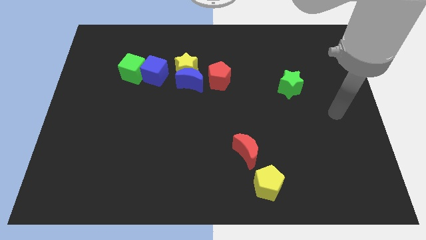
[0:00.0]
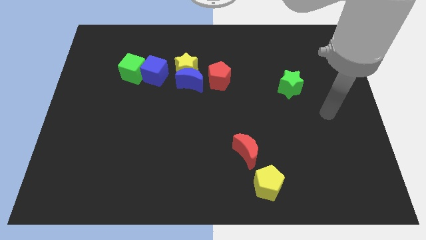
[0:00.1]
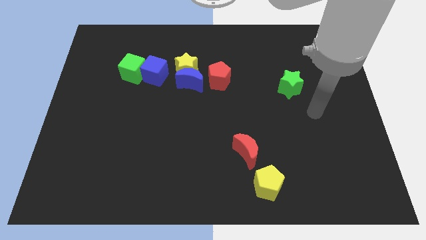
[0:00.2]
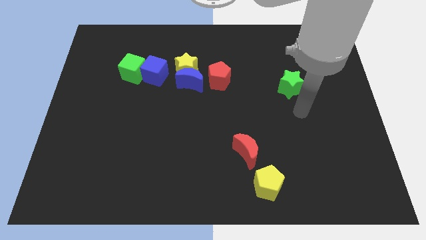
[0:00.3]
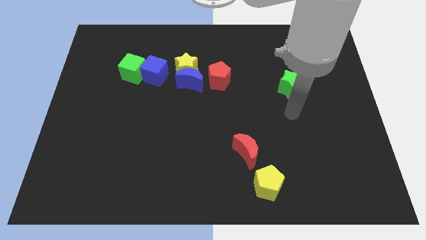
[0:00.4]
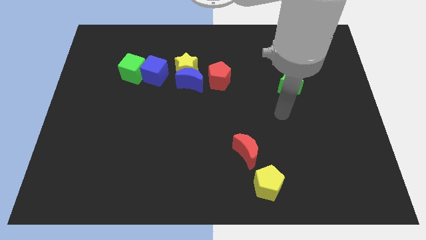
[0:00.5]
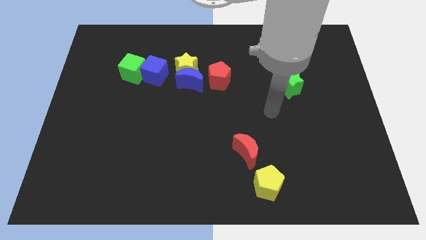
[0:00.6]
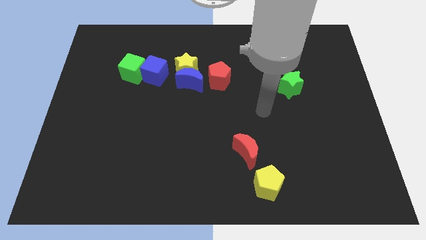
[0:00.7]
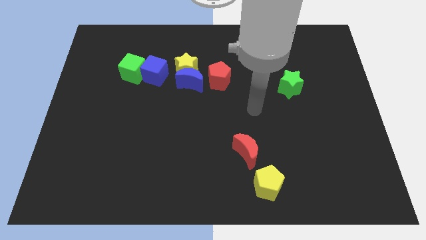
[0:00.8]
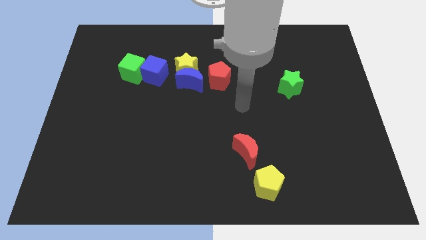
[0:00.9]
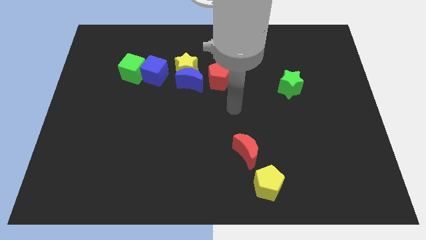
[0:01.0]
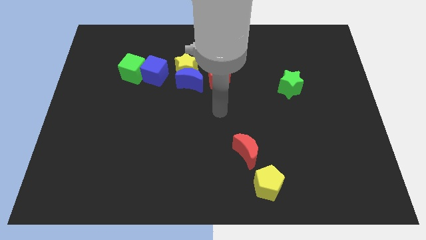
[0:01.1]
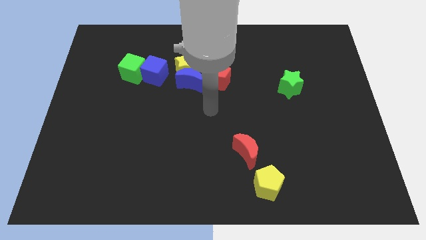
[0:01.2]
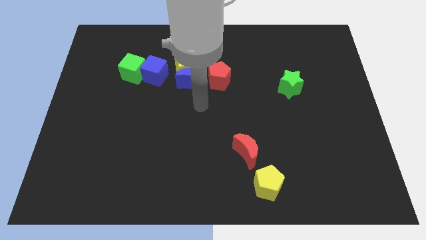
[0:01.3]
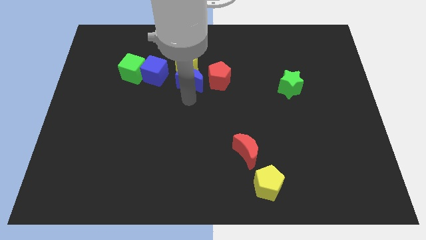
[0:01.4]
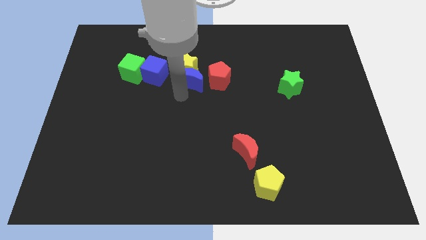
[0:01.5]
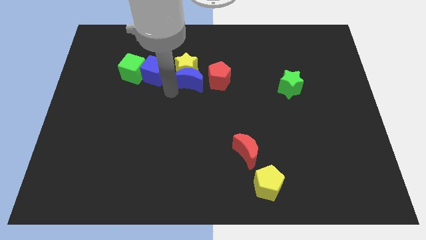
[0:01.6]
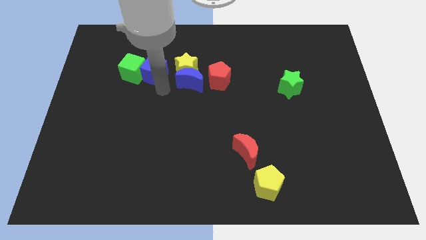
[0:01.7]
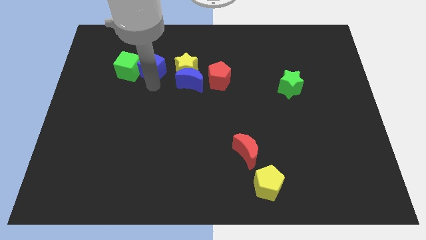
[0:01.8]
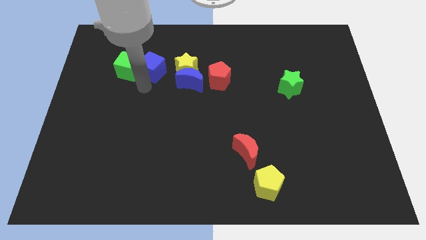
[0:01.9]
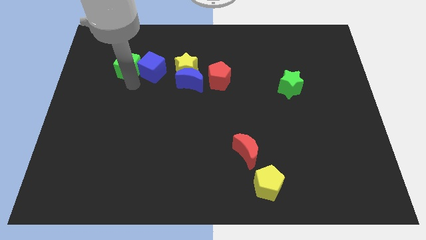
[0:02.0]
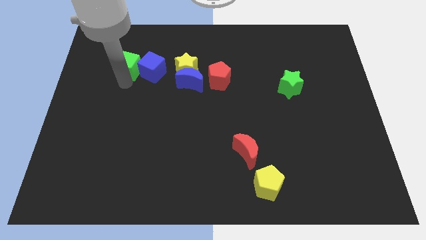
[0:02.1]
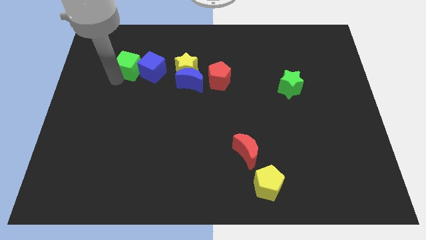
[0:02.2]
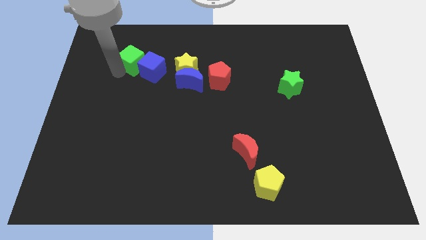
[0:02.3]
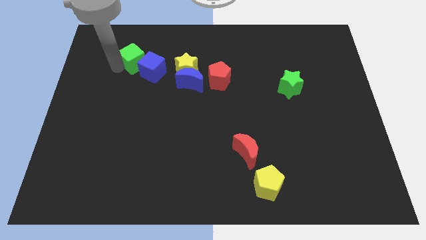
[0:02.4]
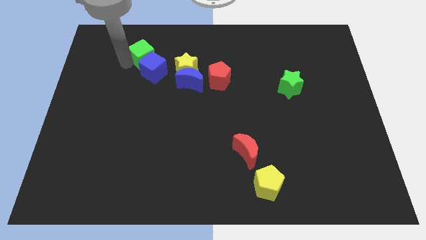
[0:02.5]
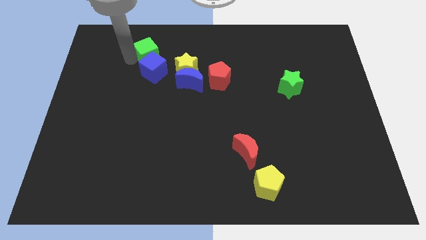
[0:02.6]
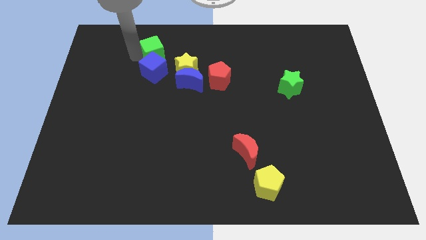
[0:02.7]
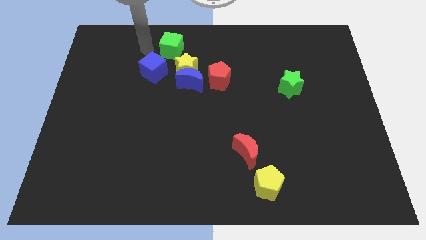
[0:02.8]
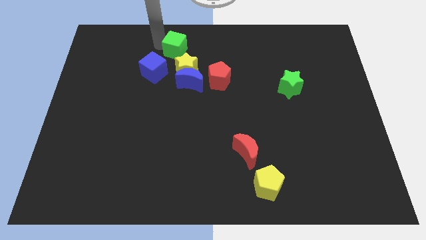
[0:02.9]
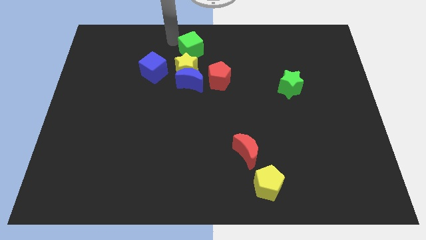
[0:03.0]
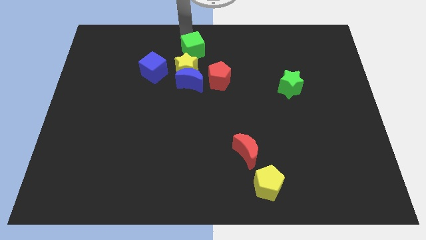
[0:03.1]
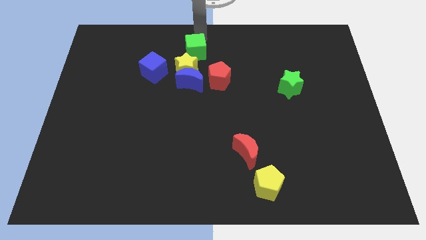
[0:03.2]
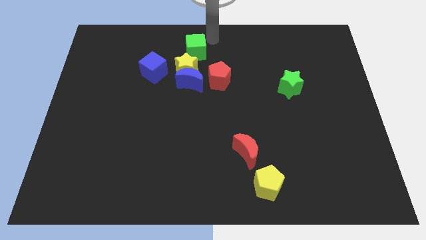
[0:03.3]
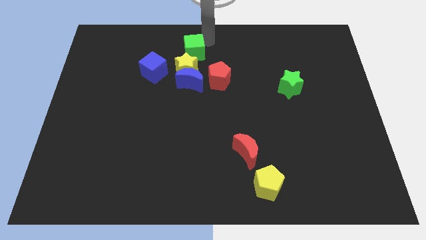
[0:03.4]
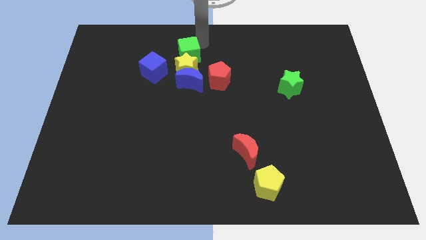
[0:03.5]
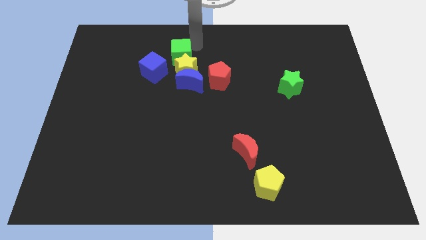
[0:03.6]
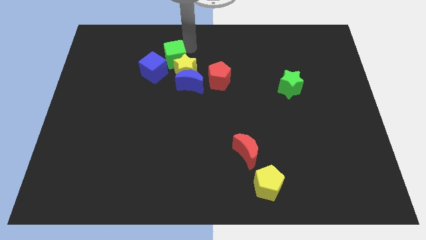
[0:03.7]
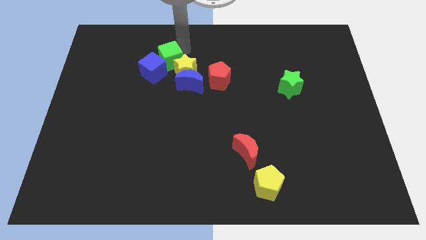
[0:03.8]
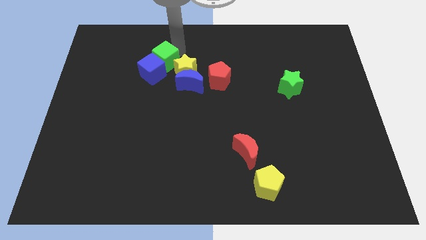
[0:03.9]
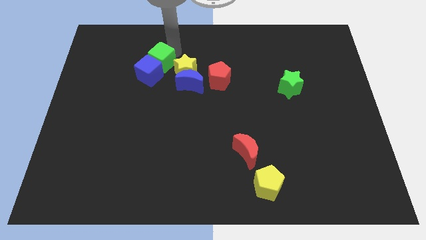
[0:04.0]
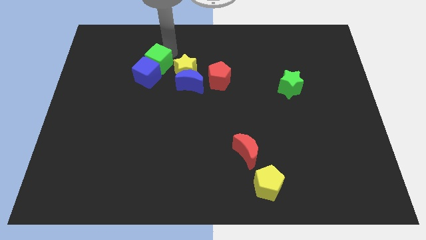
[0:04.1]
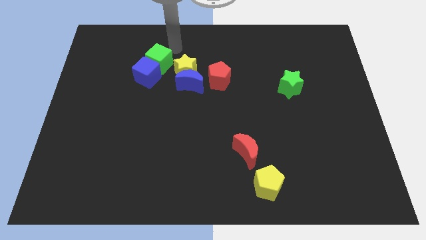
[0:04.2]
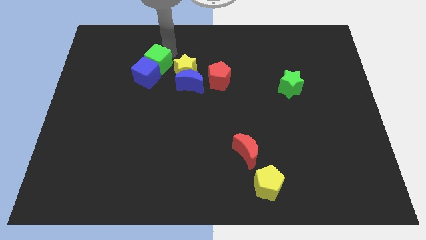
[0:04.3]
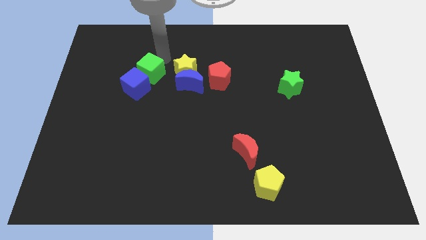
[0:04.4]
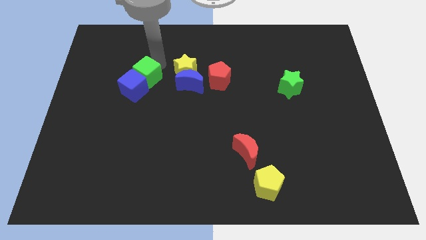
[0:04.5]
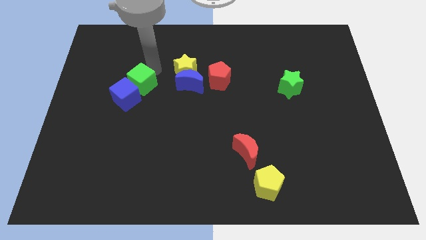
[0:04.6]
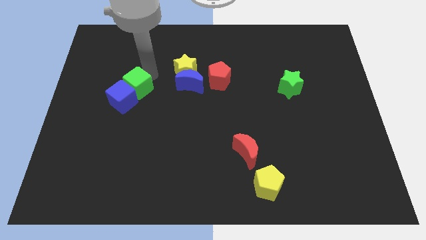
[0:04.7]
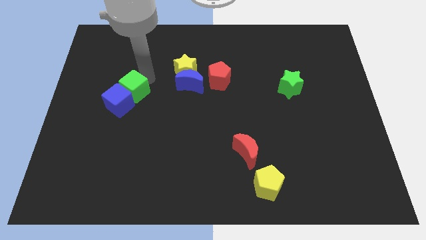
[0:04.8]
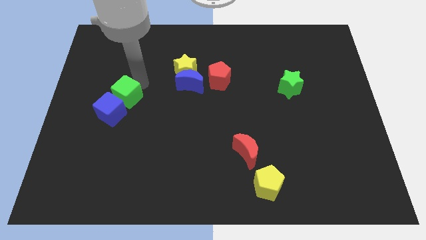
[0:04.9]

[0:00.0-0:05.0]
slide the green cube downwards a bit

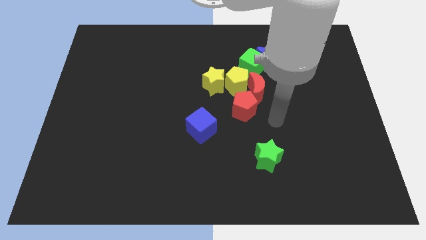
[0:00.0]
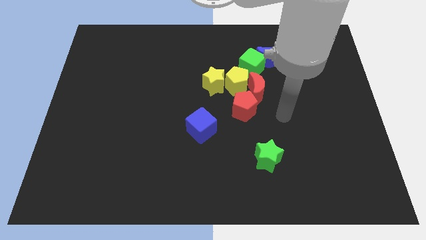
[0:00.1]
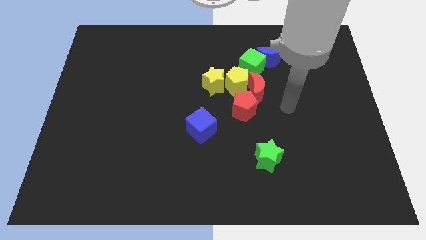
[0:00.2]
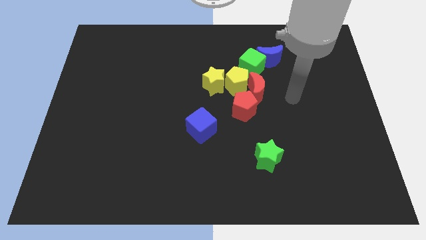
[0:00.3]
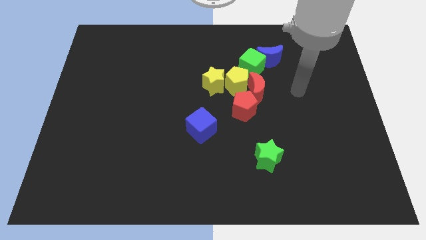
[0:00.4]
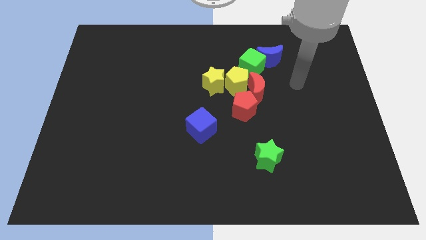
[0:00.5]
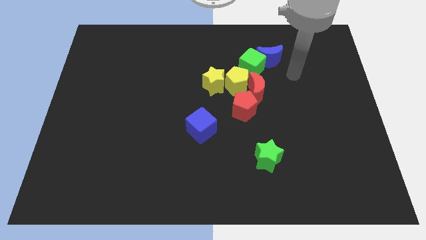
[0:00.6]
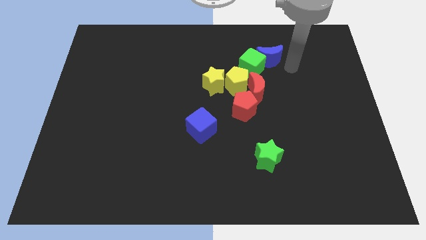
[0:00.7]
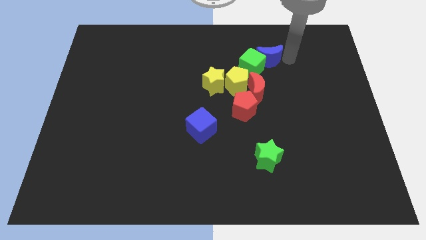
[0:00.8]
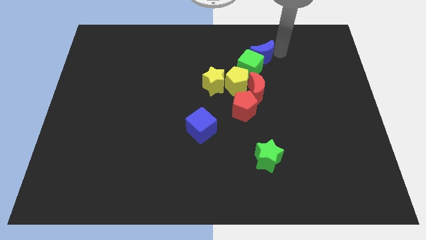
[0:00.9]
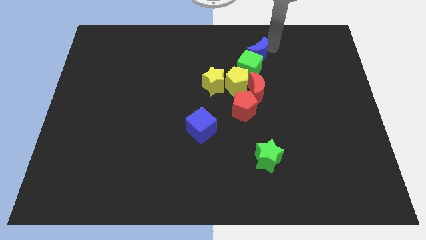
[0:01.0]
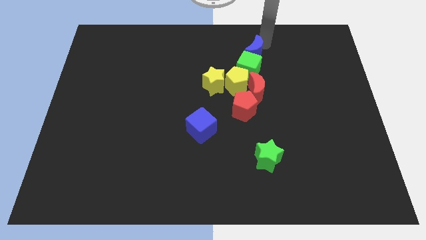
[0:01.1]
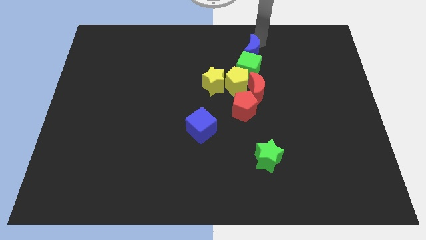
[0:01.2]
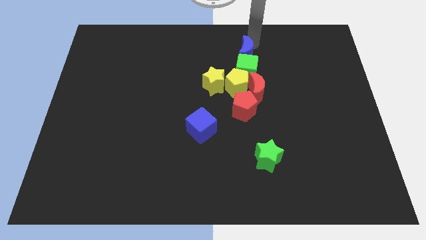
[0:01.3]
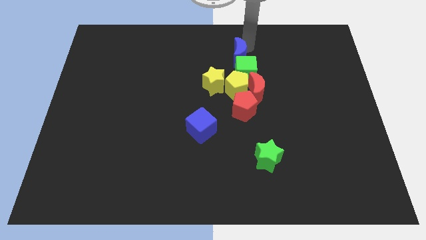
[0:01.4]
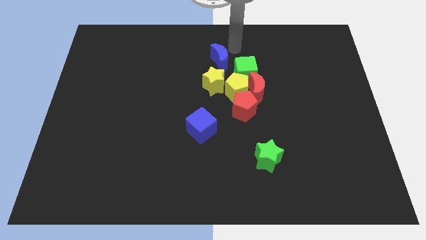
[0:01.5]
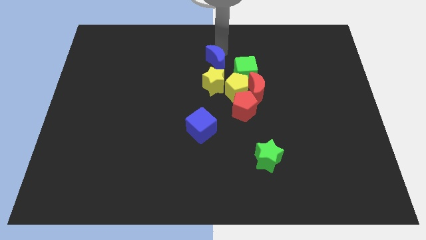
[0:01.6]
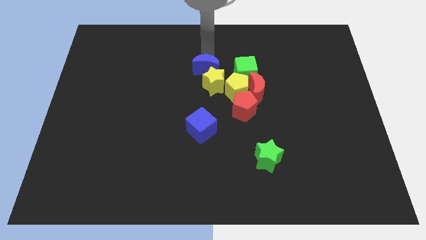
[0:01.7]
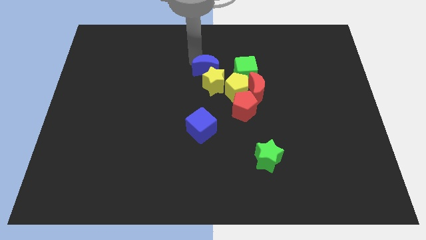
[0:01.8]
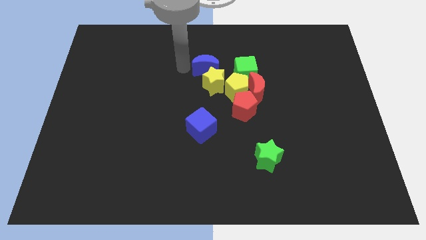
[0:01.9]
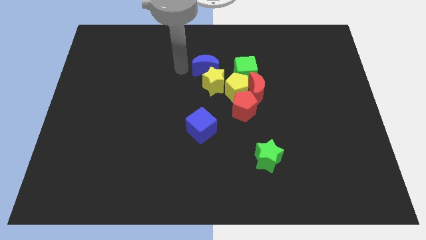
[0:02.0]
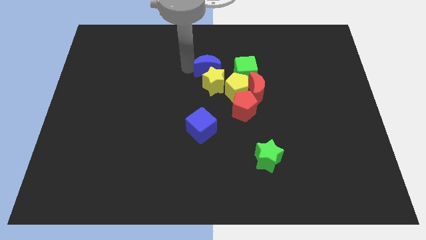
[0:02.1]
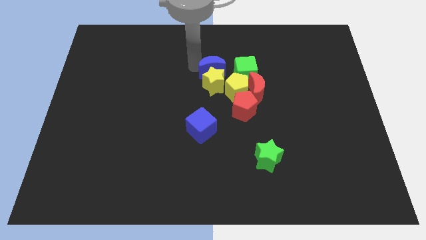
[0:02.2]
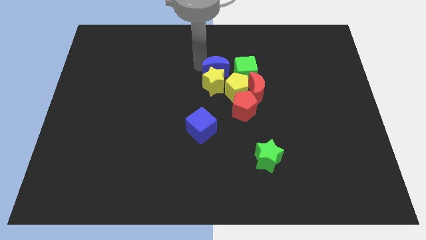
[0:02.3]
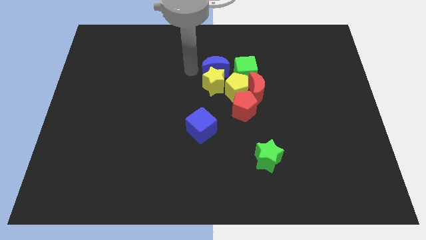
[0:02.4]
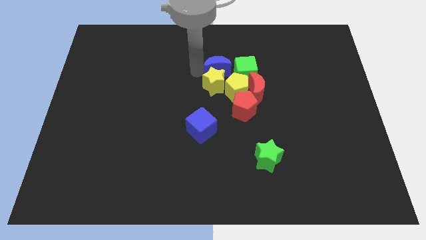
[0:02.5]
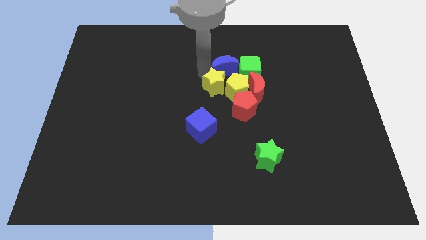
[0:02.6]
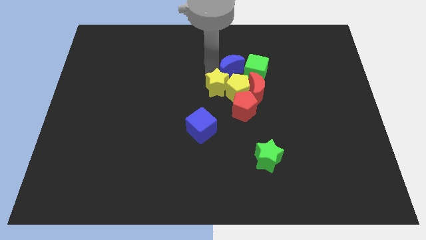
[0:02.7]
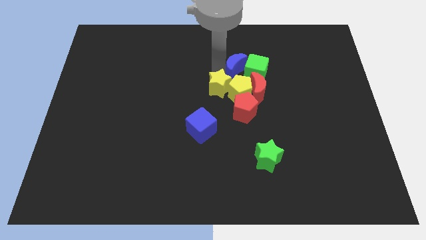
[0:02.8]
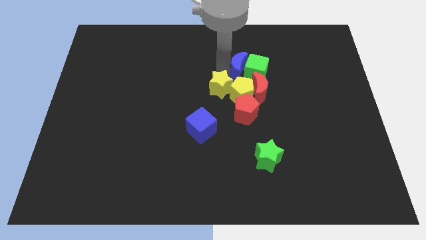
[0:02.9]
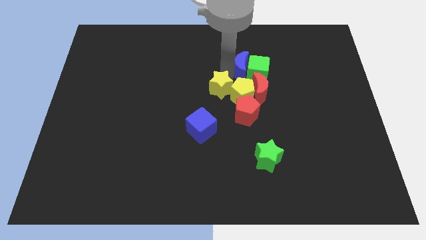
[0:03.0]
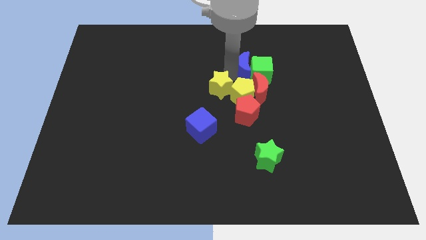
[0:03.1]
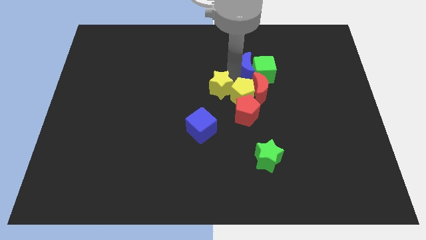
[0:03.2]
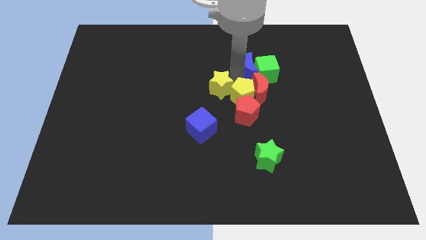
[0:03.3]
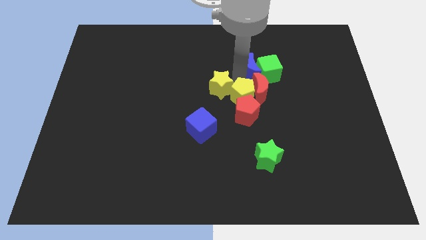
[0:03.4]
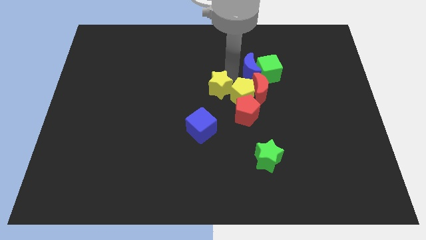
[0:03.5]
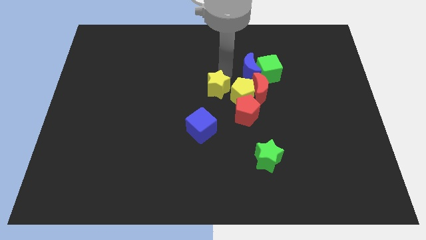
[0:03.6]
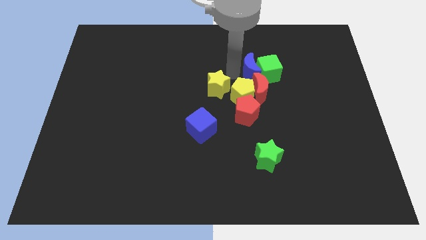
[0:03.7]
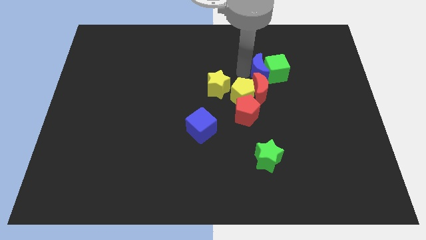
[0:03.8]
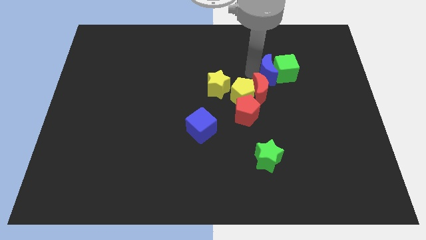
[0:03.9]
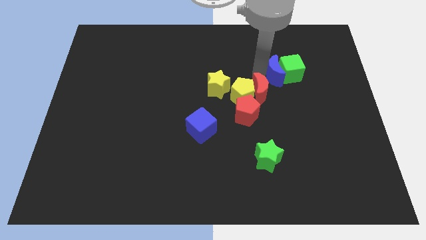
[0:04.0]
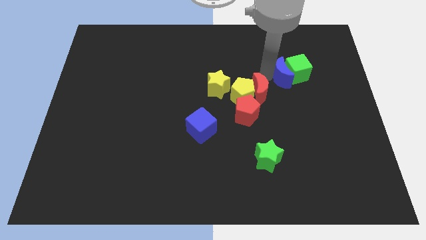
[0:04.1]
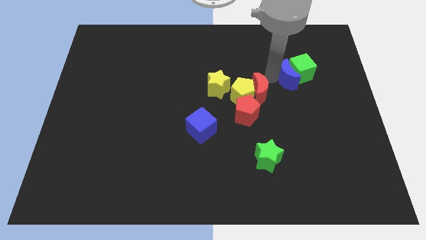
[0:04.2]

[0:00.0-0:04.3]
push the blue moon somewhat down and then right
